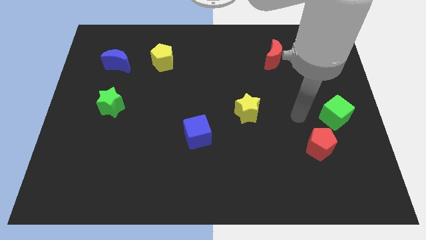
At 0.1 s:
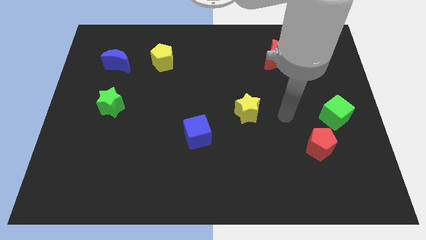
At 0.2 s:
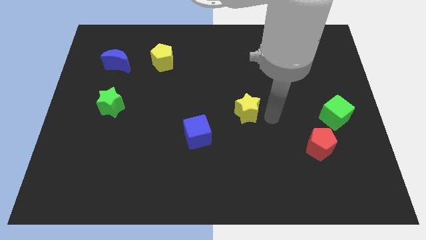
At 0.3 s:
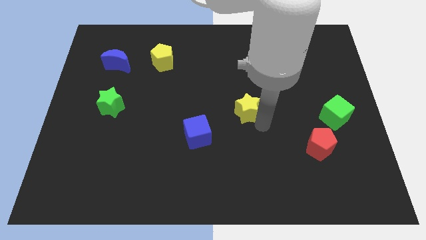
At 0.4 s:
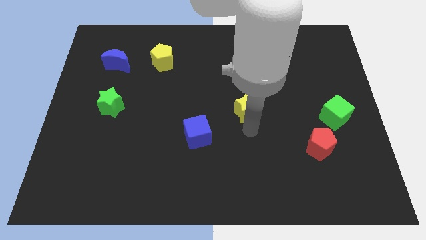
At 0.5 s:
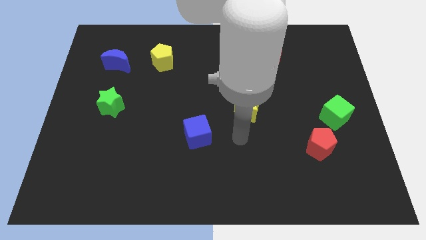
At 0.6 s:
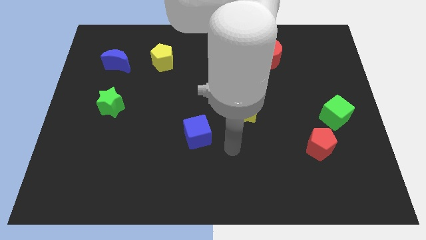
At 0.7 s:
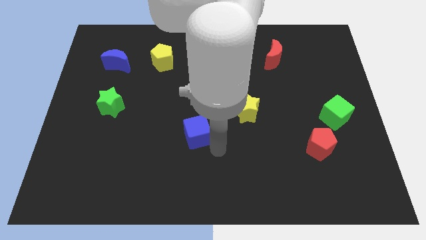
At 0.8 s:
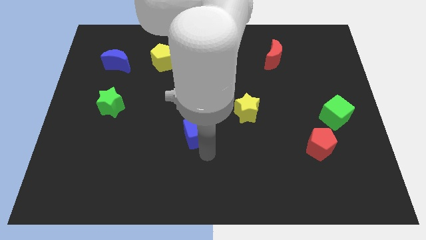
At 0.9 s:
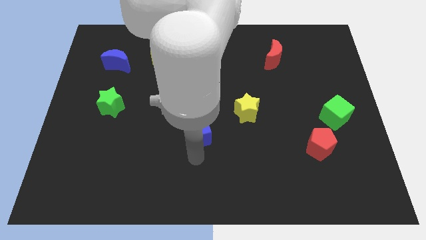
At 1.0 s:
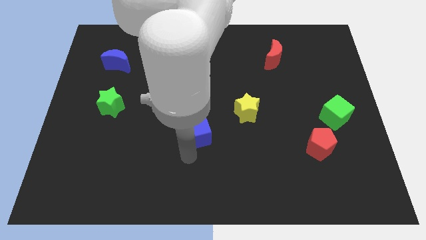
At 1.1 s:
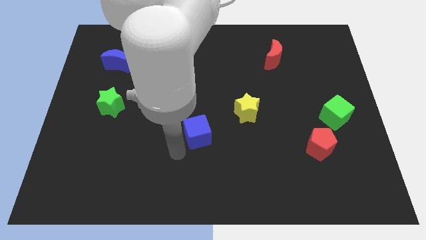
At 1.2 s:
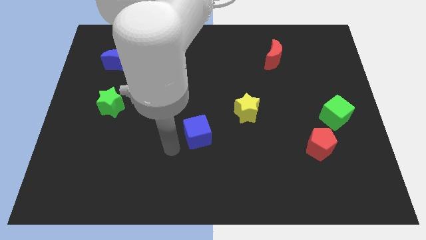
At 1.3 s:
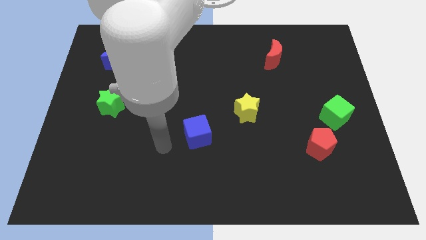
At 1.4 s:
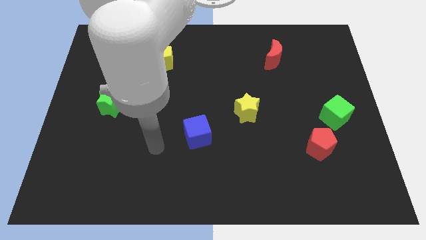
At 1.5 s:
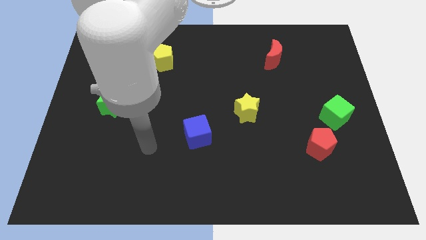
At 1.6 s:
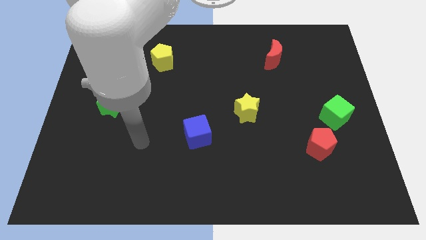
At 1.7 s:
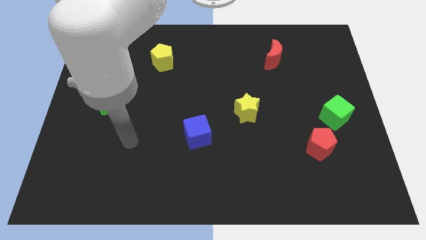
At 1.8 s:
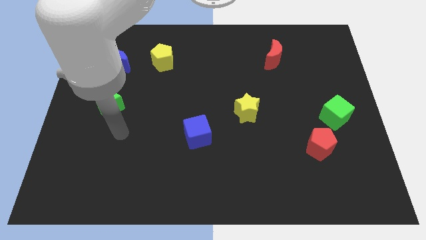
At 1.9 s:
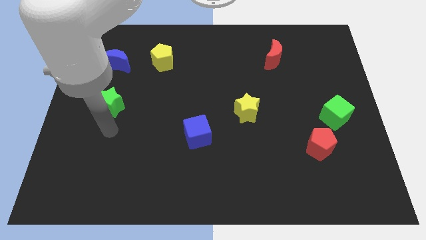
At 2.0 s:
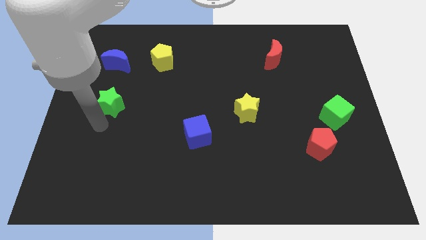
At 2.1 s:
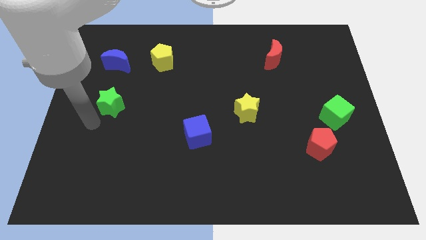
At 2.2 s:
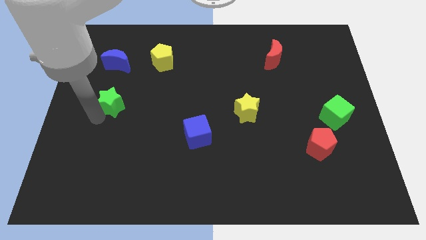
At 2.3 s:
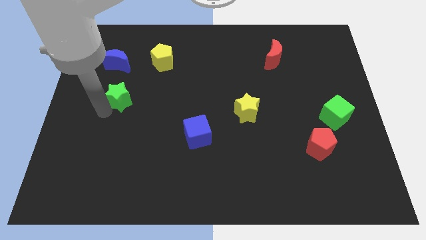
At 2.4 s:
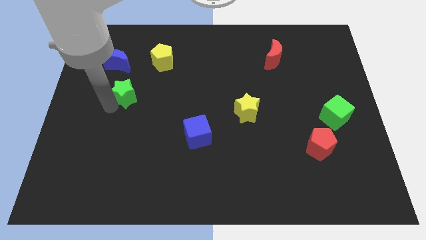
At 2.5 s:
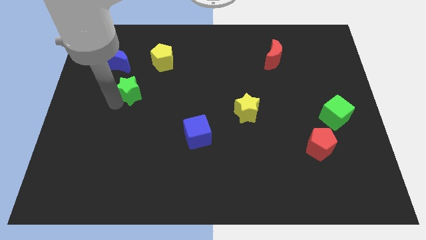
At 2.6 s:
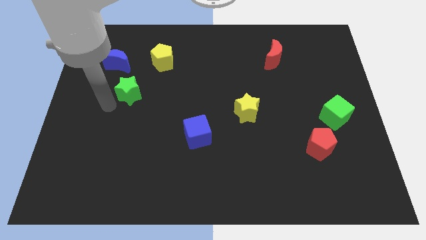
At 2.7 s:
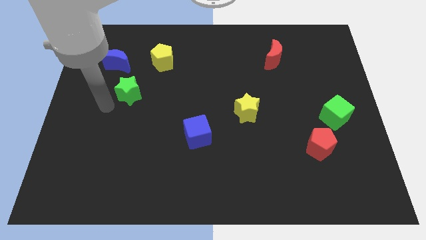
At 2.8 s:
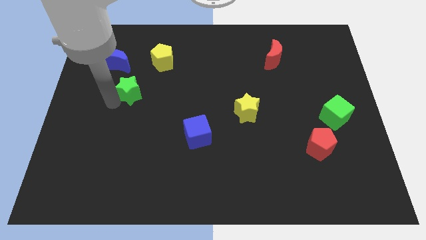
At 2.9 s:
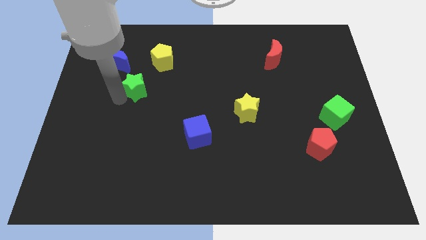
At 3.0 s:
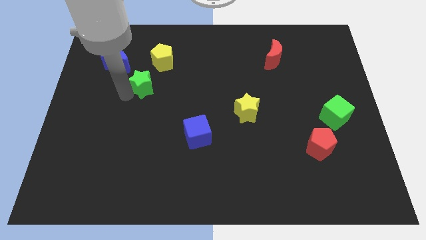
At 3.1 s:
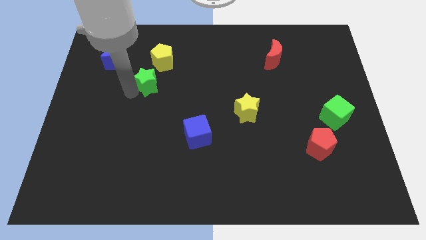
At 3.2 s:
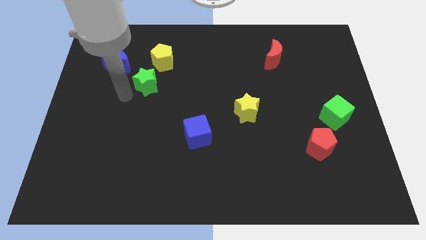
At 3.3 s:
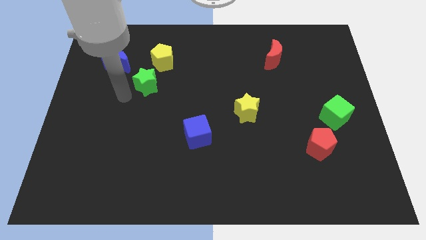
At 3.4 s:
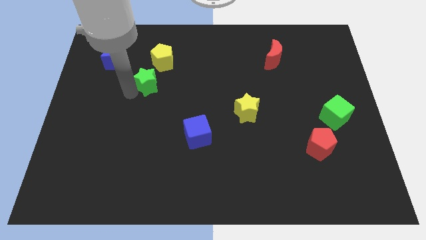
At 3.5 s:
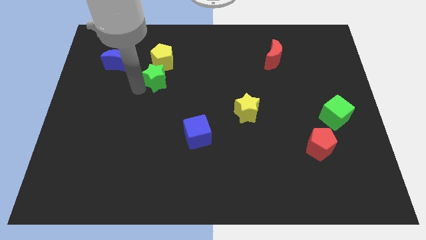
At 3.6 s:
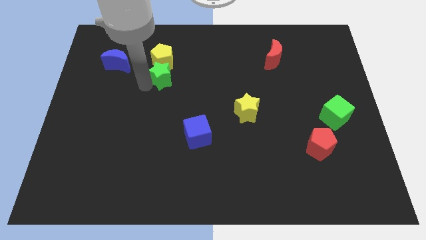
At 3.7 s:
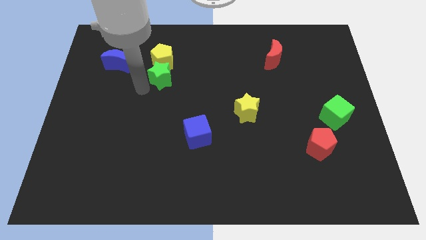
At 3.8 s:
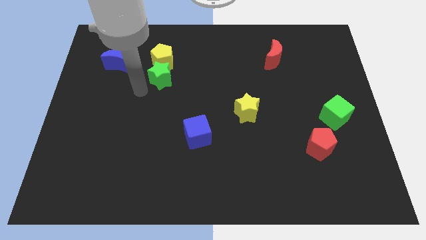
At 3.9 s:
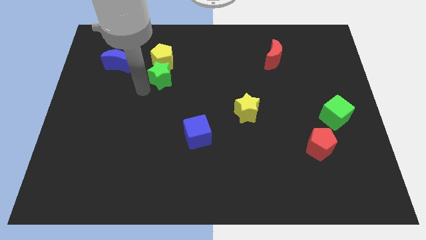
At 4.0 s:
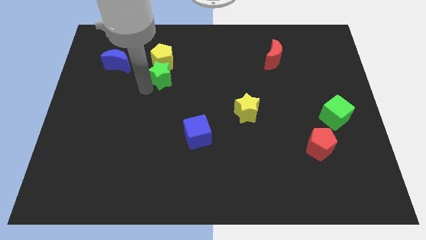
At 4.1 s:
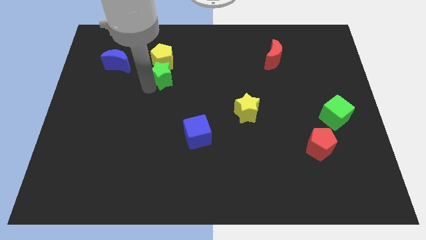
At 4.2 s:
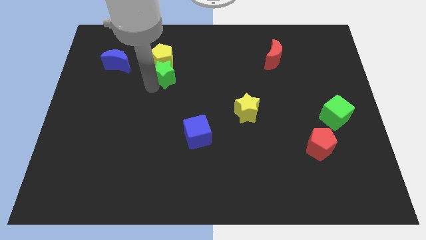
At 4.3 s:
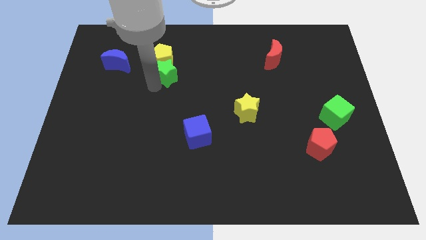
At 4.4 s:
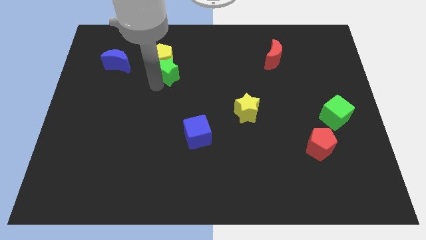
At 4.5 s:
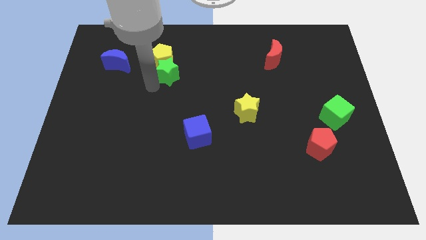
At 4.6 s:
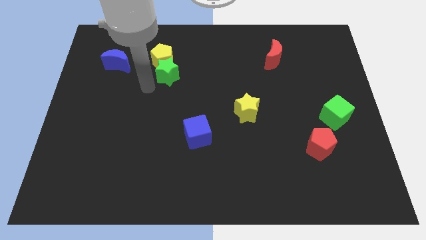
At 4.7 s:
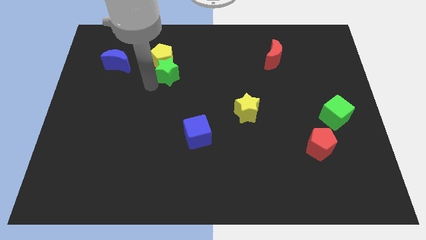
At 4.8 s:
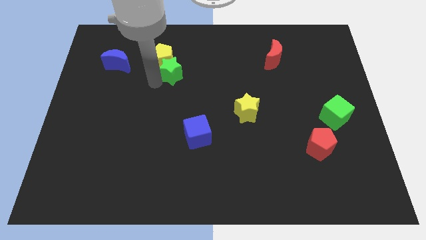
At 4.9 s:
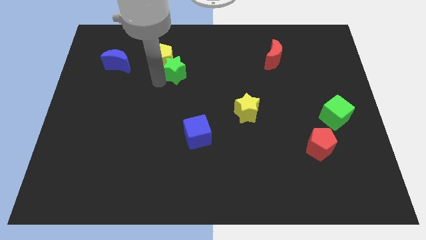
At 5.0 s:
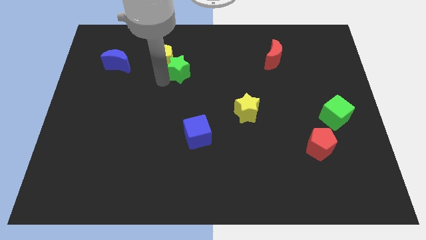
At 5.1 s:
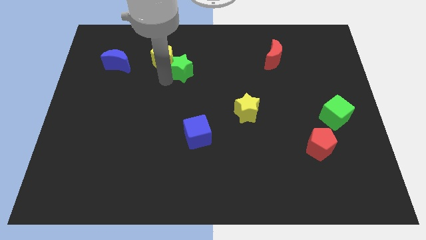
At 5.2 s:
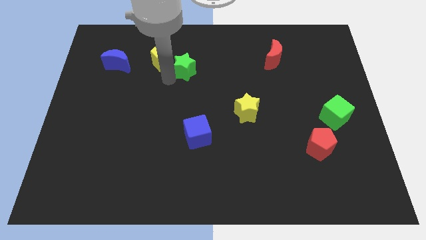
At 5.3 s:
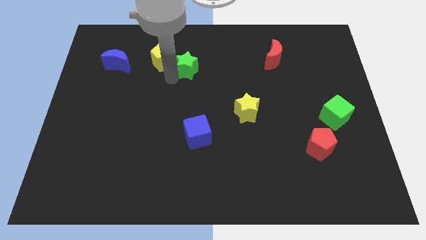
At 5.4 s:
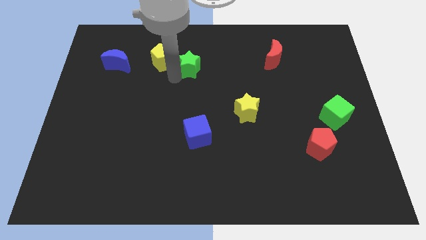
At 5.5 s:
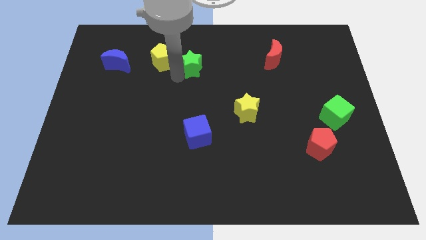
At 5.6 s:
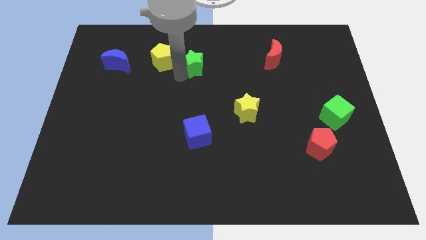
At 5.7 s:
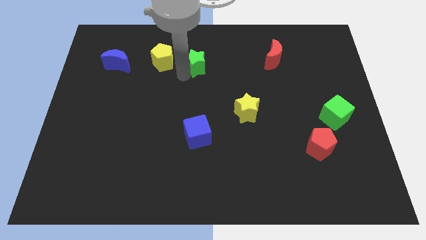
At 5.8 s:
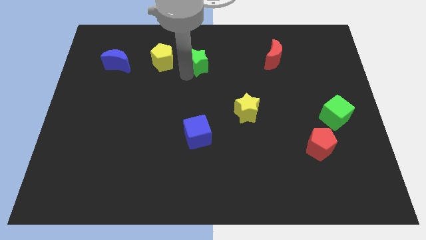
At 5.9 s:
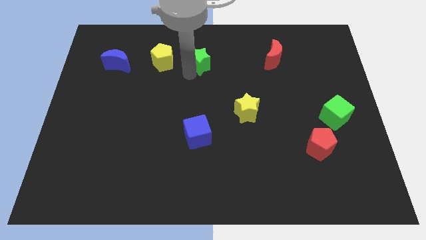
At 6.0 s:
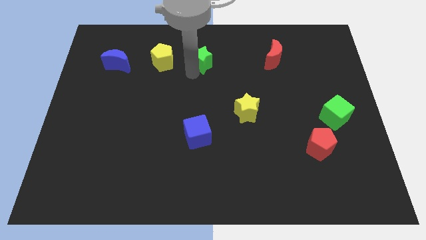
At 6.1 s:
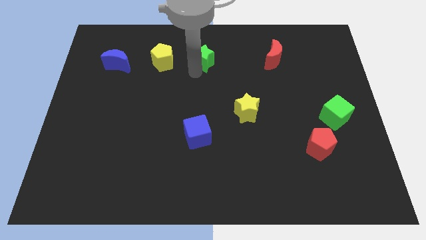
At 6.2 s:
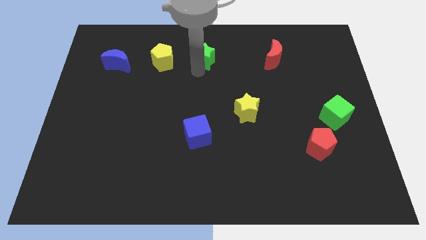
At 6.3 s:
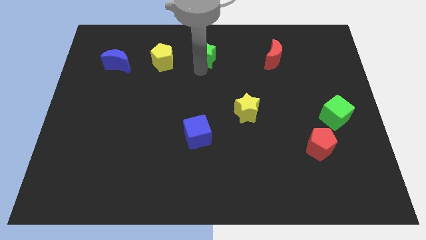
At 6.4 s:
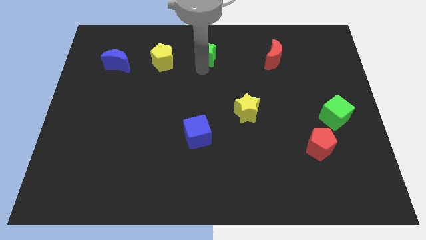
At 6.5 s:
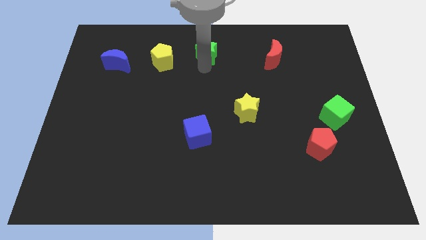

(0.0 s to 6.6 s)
slide the green star to the top
